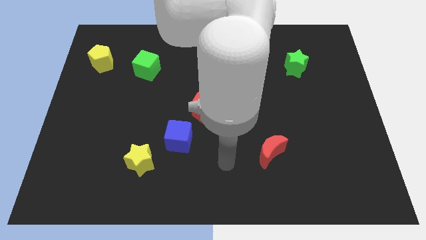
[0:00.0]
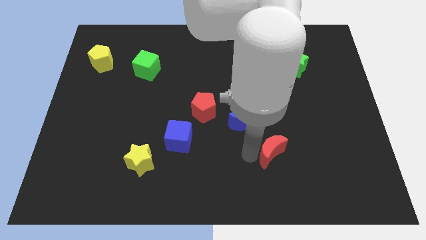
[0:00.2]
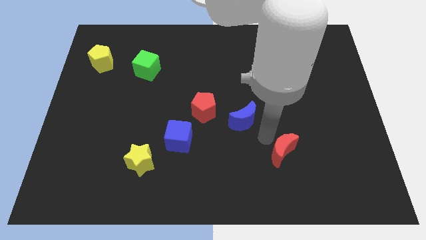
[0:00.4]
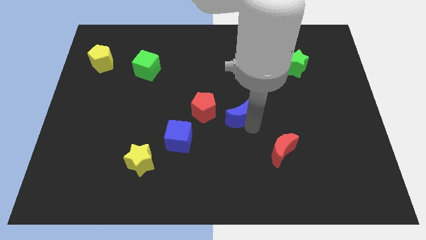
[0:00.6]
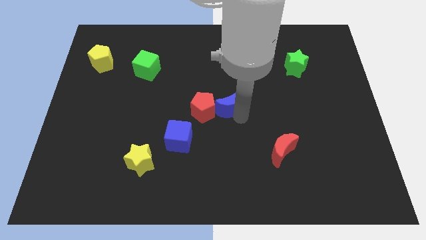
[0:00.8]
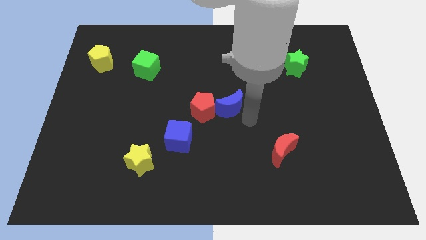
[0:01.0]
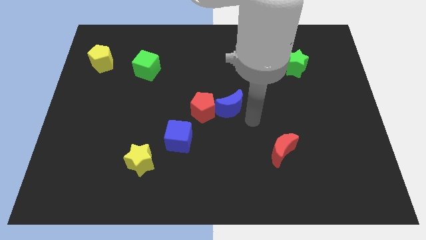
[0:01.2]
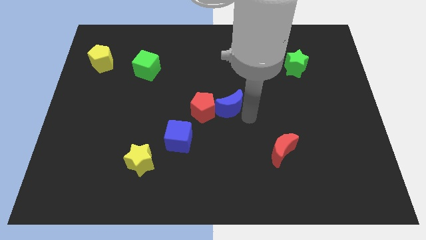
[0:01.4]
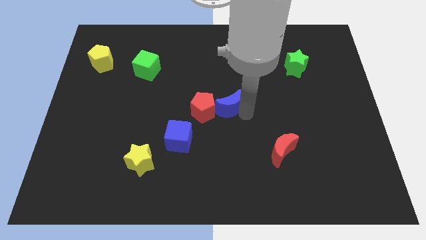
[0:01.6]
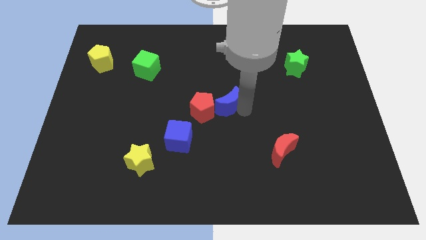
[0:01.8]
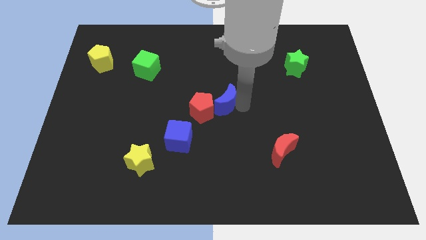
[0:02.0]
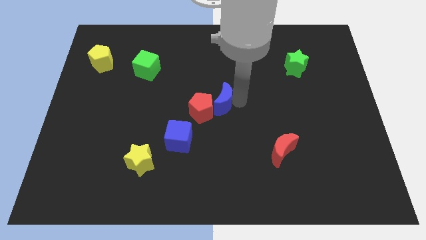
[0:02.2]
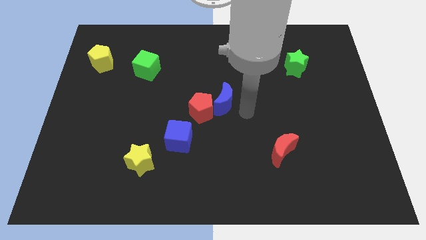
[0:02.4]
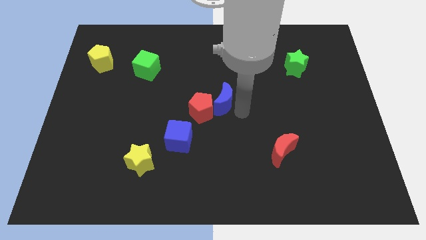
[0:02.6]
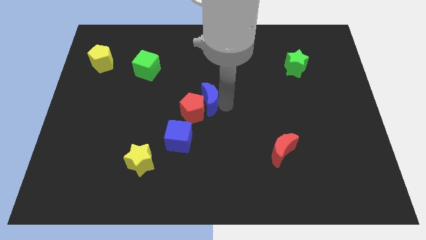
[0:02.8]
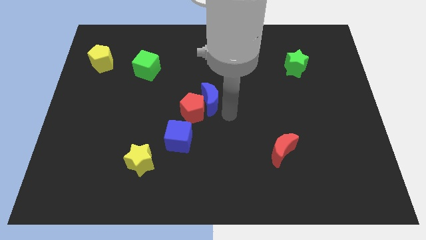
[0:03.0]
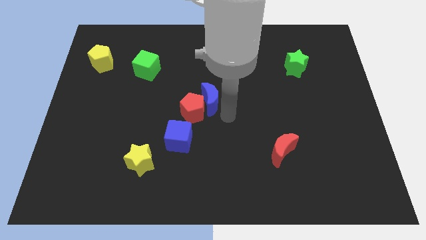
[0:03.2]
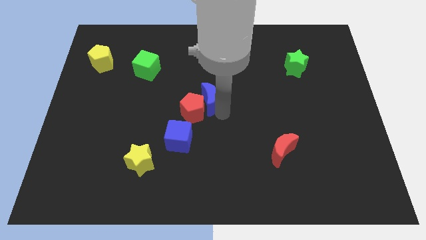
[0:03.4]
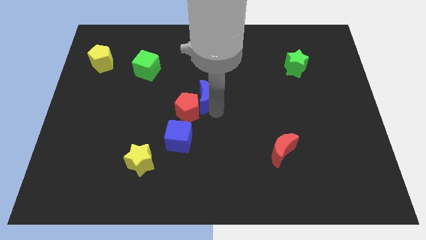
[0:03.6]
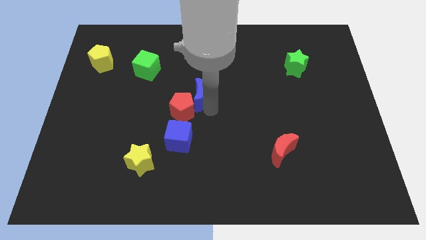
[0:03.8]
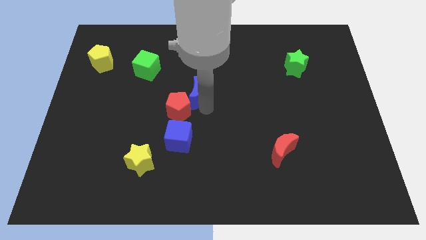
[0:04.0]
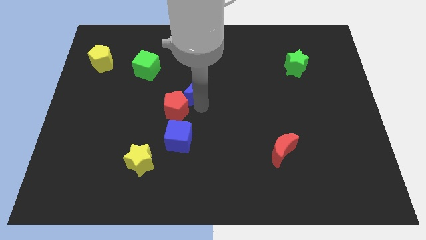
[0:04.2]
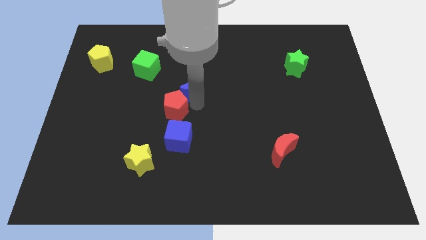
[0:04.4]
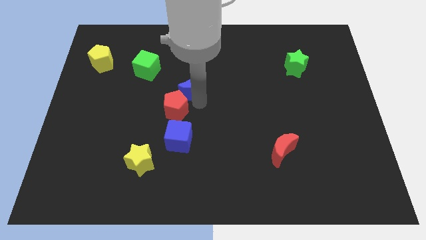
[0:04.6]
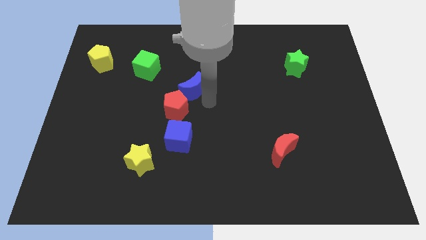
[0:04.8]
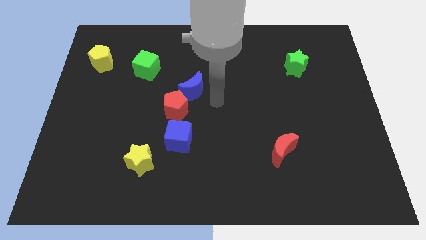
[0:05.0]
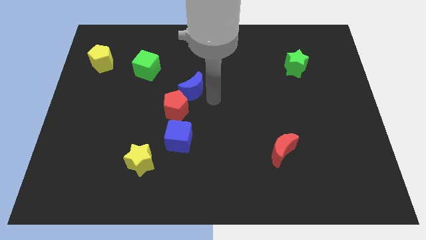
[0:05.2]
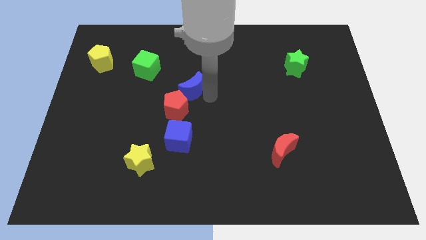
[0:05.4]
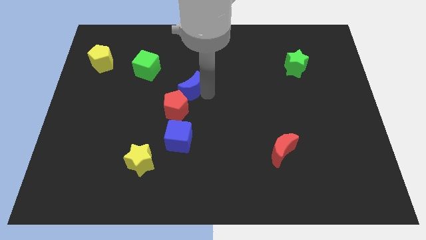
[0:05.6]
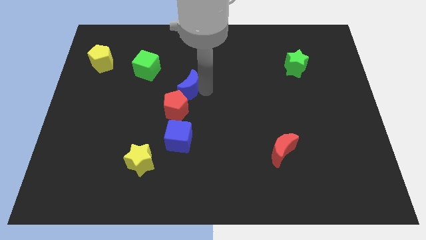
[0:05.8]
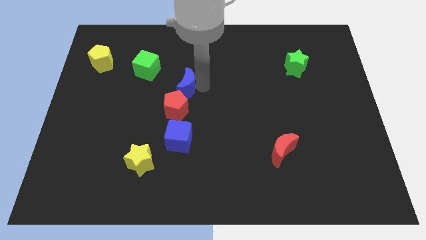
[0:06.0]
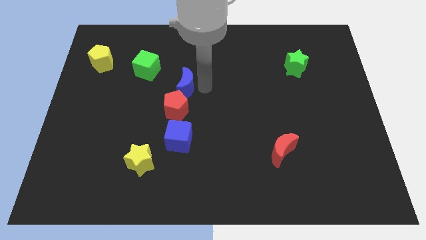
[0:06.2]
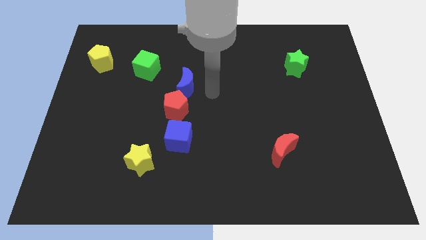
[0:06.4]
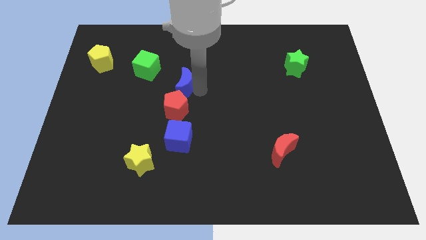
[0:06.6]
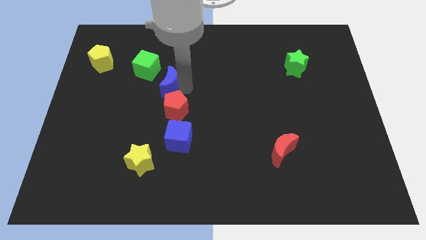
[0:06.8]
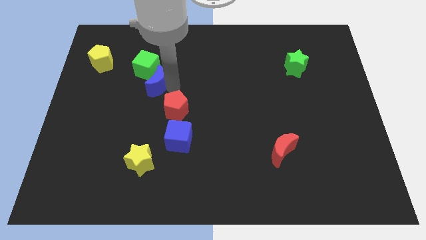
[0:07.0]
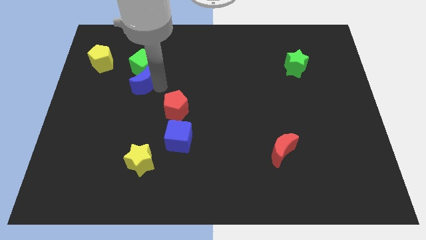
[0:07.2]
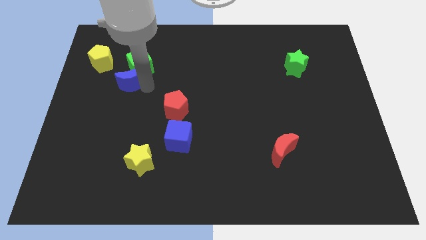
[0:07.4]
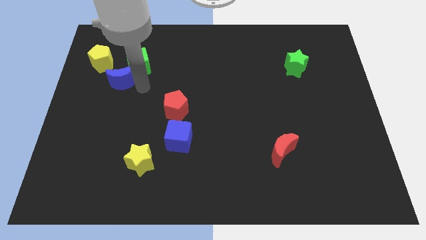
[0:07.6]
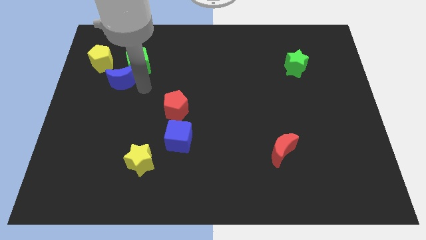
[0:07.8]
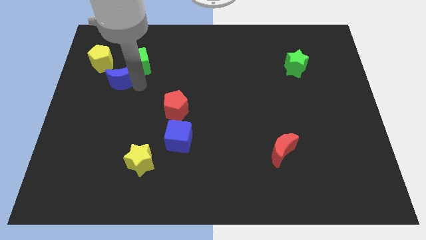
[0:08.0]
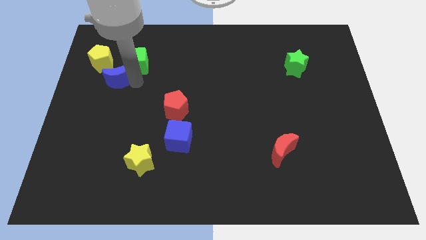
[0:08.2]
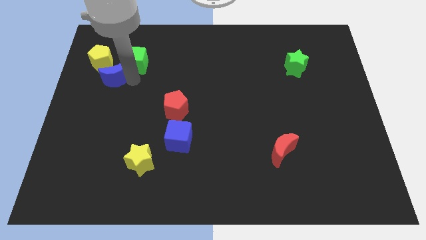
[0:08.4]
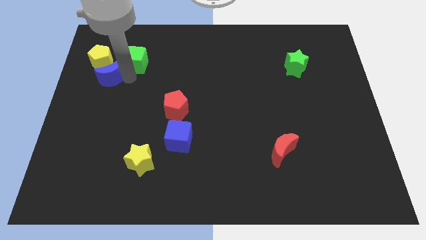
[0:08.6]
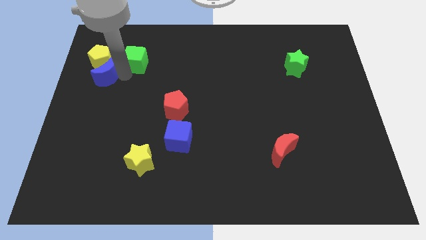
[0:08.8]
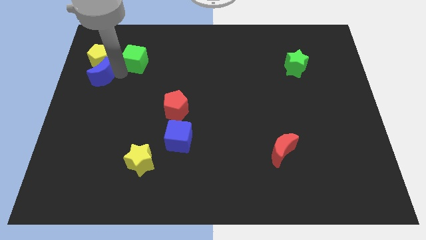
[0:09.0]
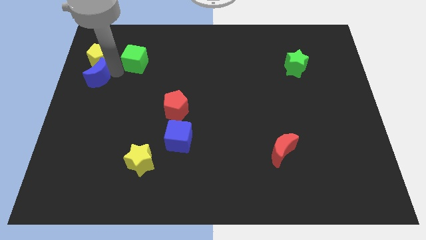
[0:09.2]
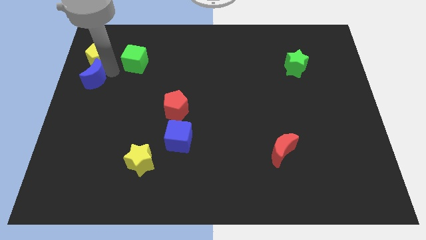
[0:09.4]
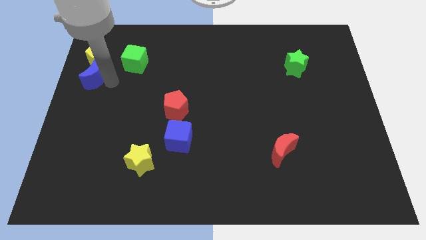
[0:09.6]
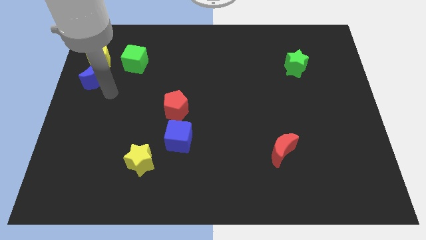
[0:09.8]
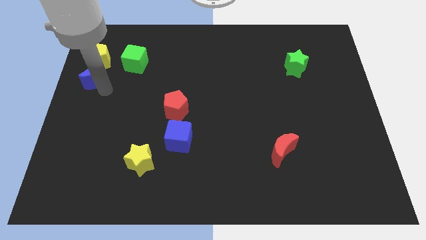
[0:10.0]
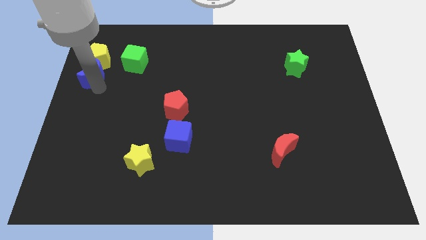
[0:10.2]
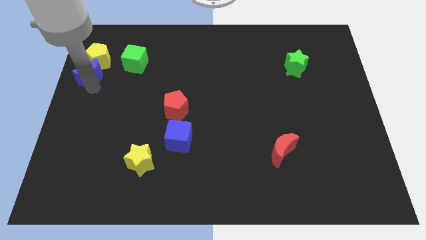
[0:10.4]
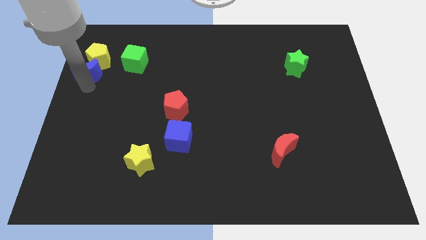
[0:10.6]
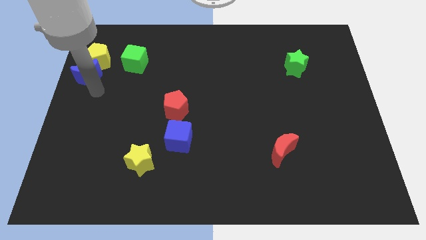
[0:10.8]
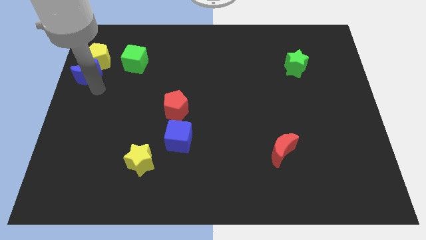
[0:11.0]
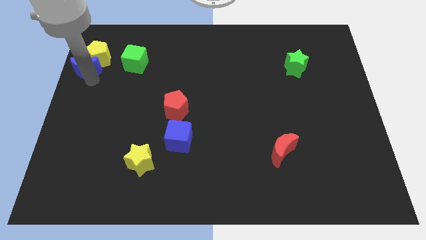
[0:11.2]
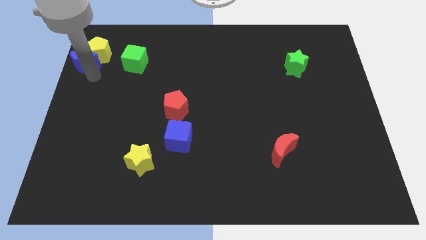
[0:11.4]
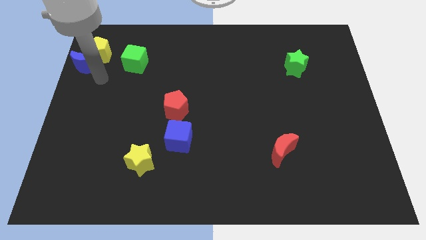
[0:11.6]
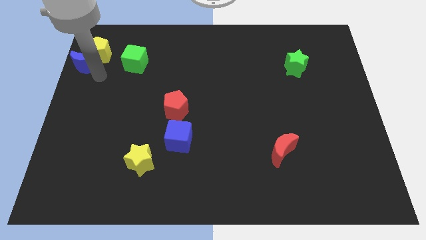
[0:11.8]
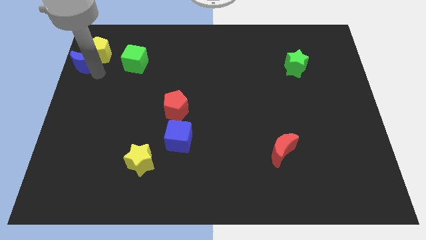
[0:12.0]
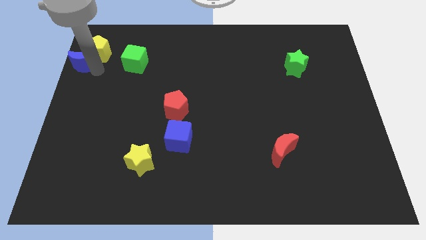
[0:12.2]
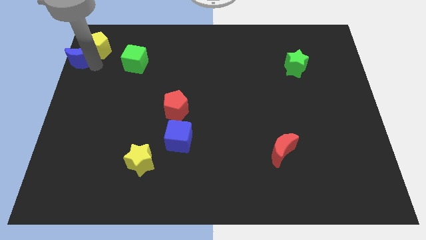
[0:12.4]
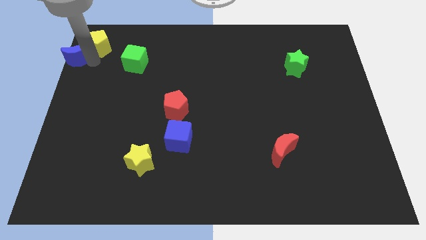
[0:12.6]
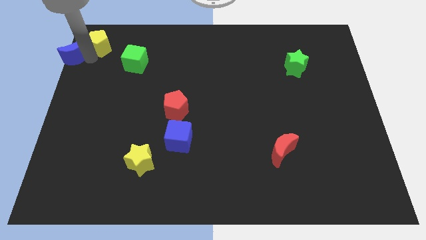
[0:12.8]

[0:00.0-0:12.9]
push the blue moon to the upper left corner
